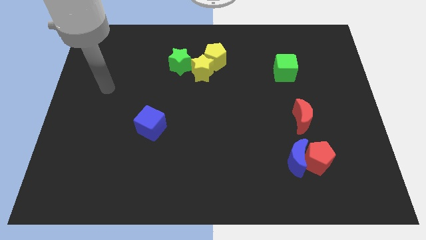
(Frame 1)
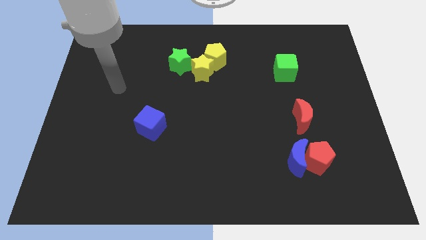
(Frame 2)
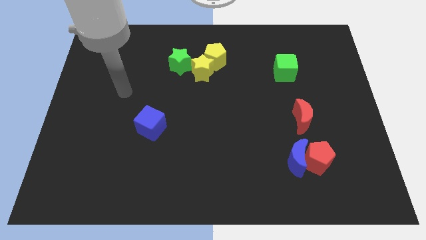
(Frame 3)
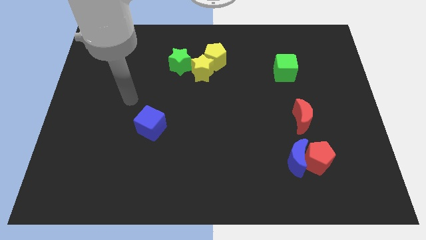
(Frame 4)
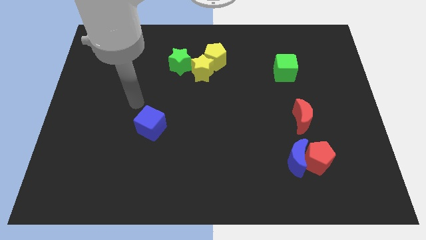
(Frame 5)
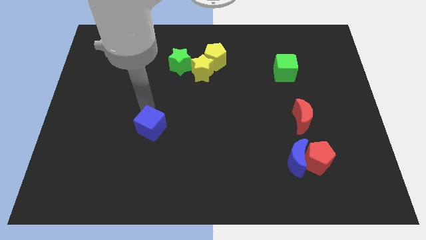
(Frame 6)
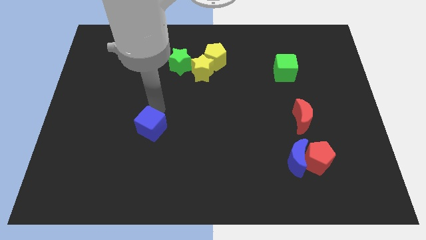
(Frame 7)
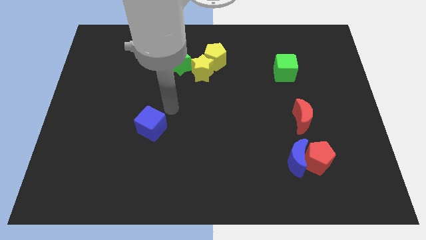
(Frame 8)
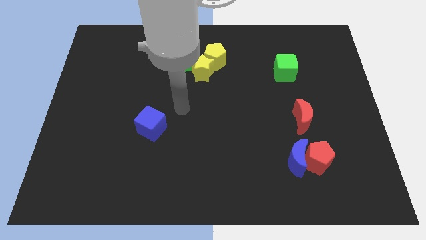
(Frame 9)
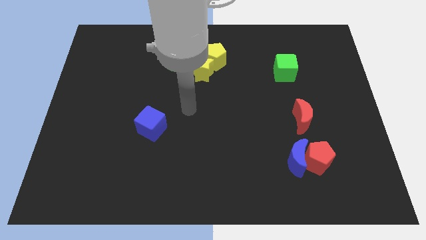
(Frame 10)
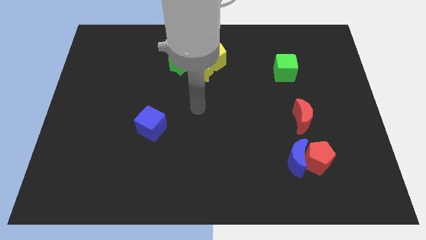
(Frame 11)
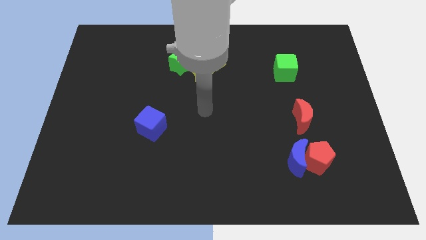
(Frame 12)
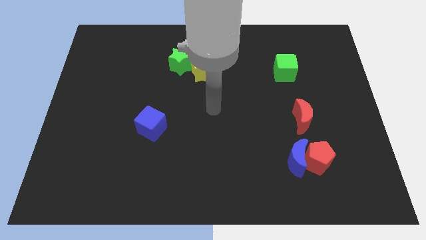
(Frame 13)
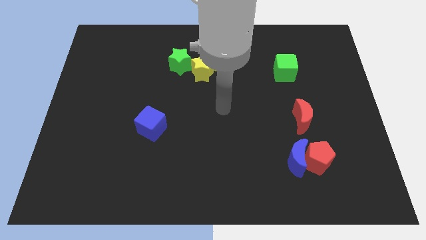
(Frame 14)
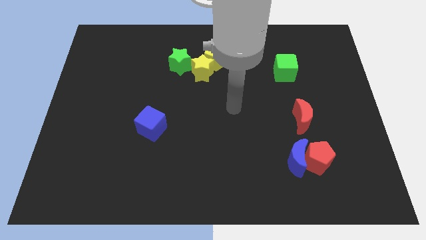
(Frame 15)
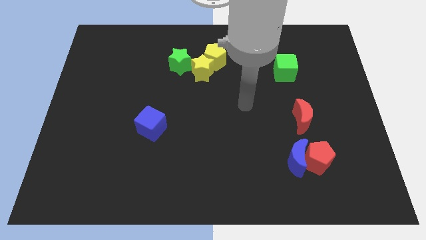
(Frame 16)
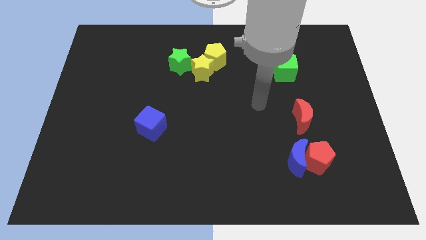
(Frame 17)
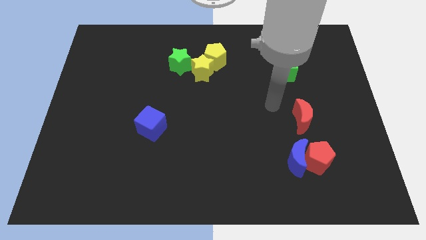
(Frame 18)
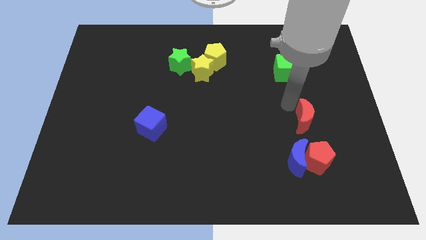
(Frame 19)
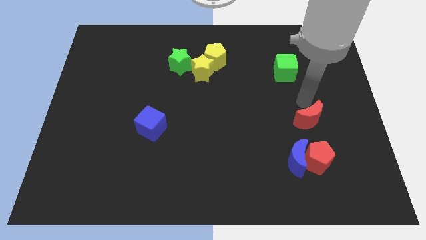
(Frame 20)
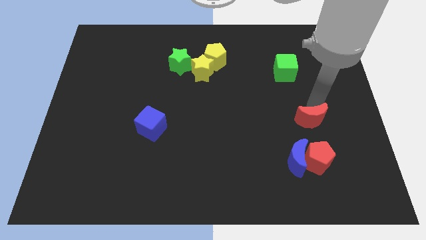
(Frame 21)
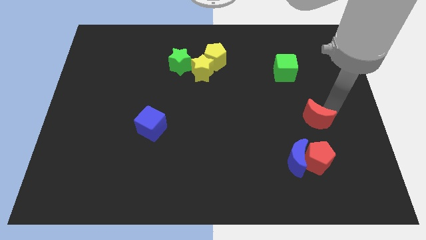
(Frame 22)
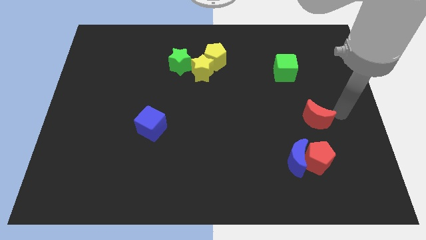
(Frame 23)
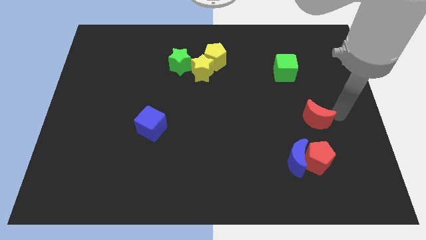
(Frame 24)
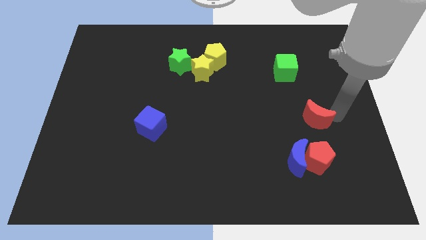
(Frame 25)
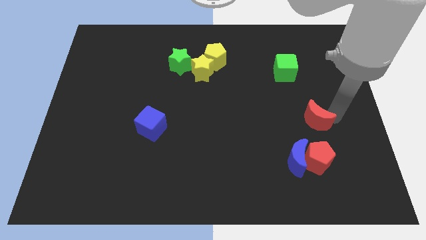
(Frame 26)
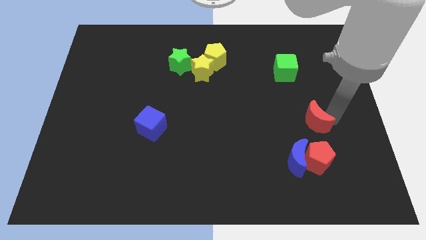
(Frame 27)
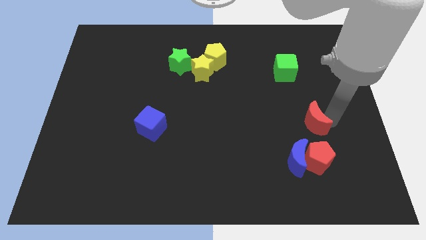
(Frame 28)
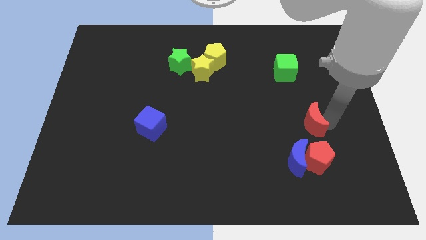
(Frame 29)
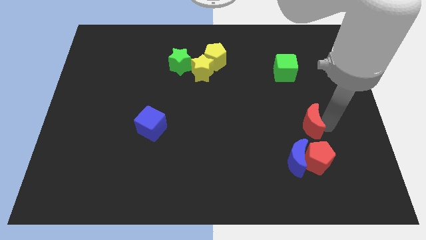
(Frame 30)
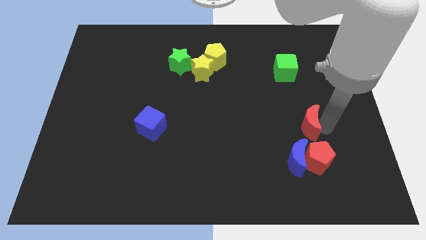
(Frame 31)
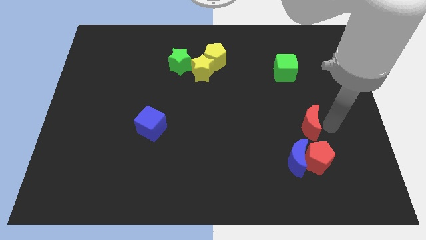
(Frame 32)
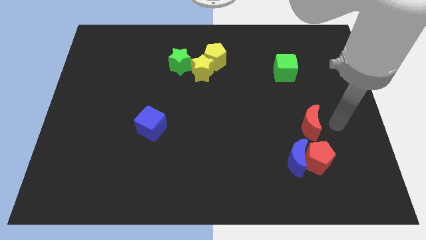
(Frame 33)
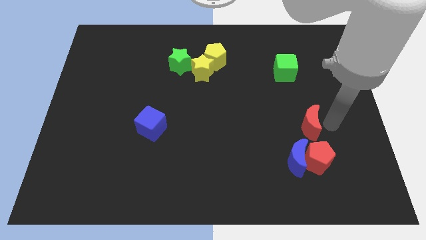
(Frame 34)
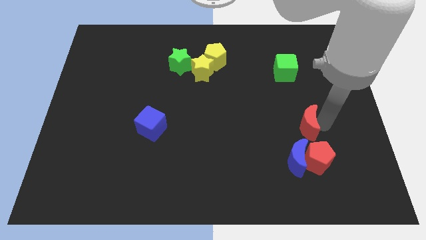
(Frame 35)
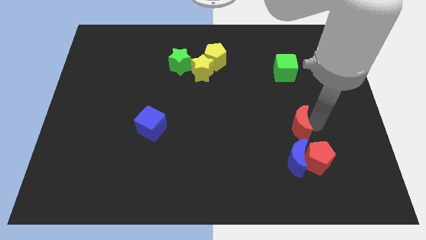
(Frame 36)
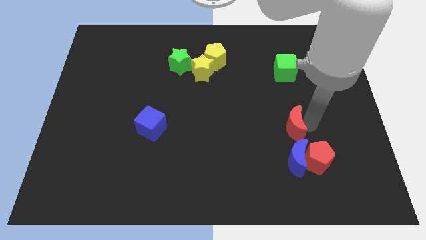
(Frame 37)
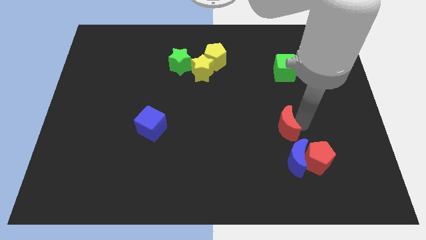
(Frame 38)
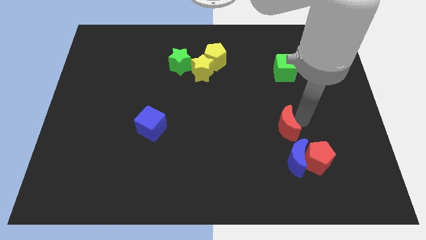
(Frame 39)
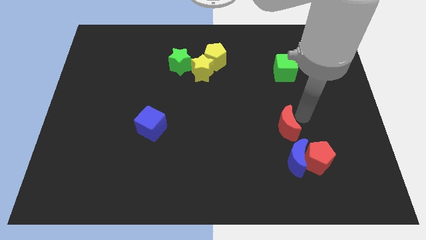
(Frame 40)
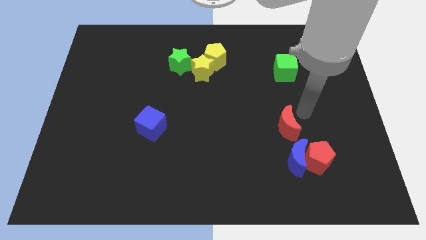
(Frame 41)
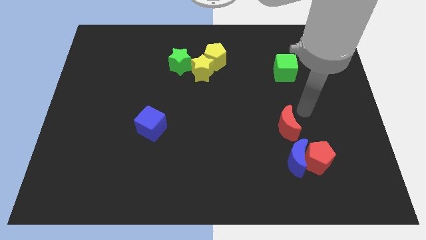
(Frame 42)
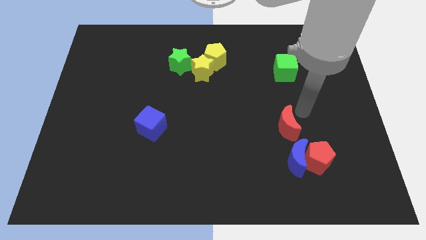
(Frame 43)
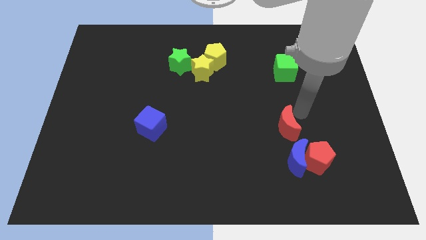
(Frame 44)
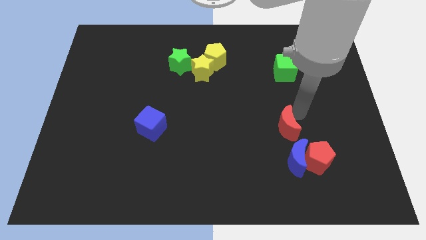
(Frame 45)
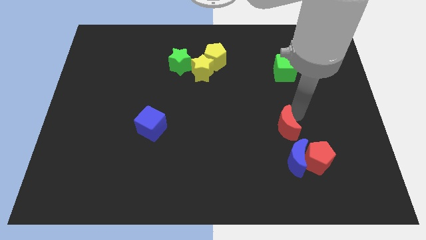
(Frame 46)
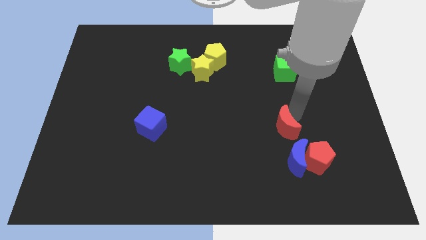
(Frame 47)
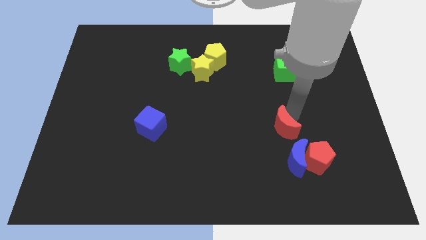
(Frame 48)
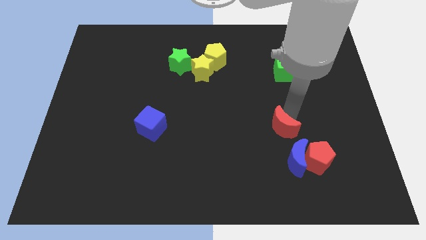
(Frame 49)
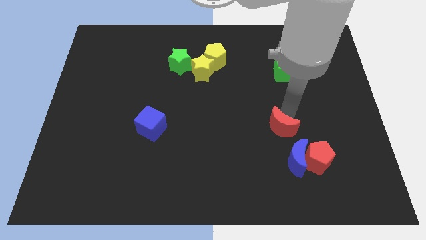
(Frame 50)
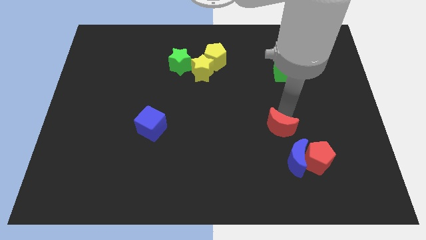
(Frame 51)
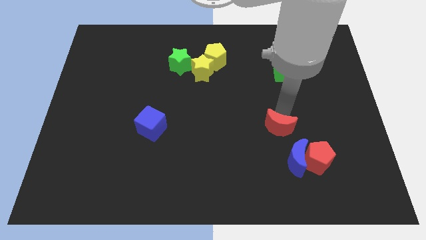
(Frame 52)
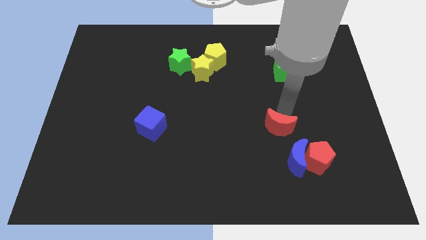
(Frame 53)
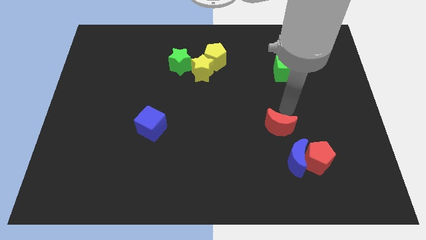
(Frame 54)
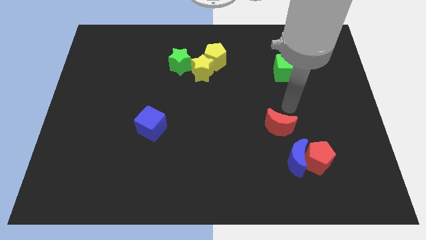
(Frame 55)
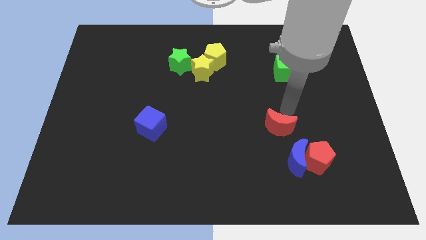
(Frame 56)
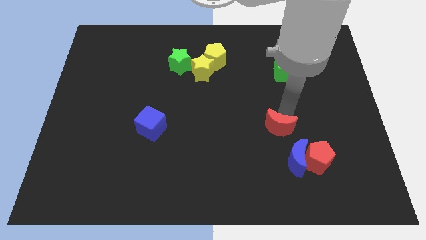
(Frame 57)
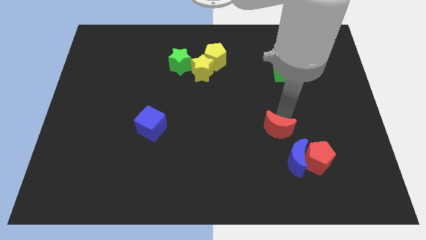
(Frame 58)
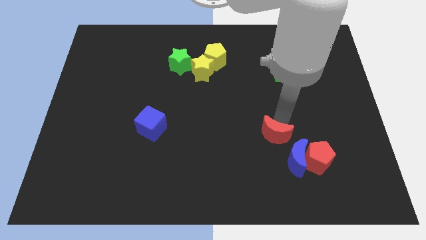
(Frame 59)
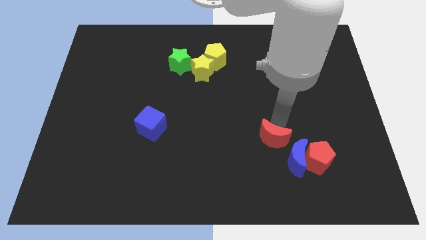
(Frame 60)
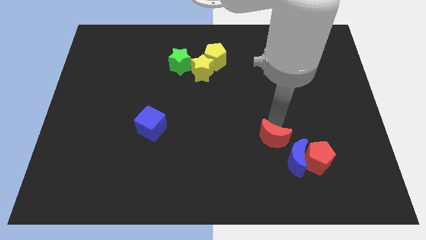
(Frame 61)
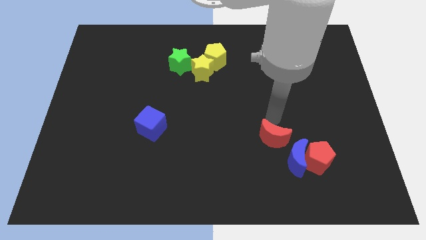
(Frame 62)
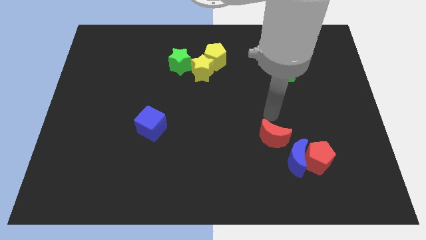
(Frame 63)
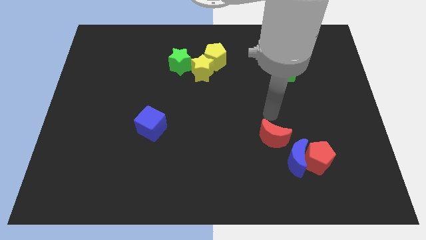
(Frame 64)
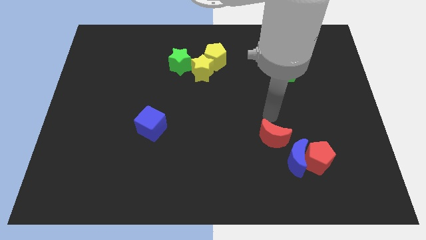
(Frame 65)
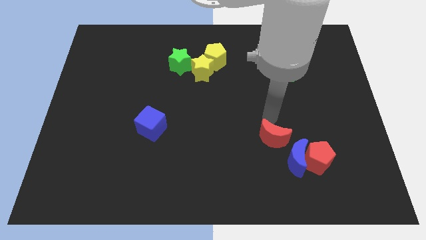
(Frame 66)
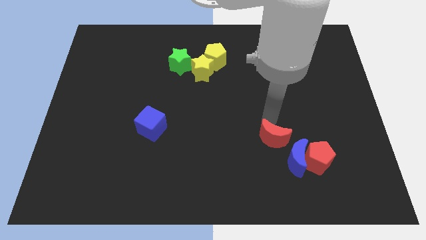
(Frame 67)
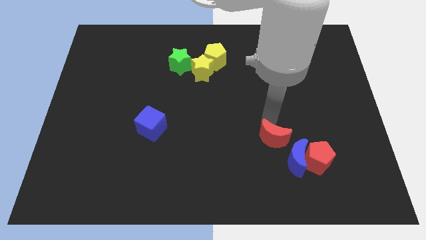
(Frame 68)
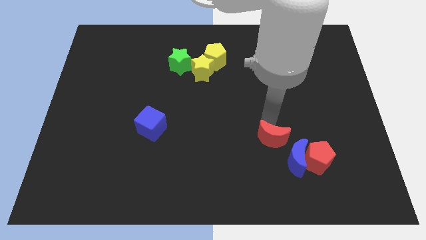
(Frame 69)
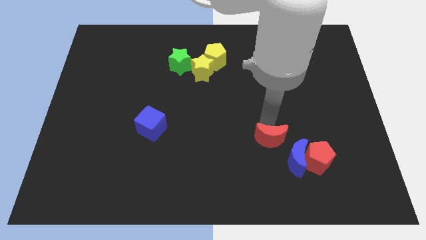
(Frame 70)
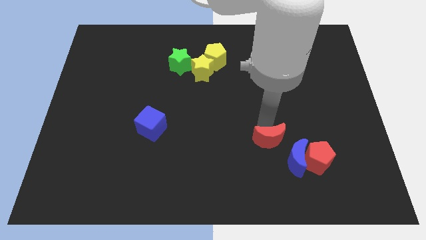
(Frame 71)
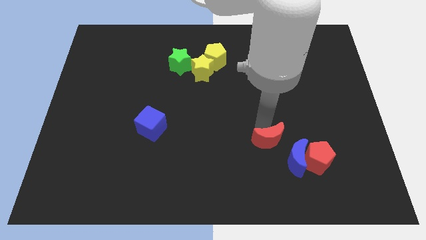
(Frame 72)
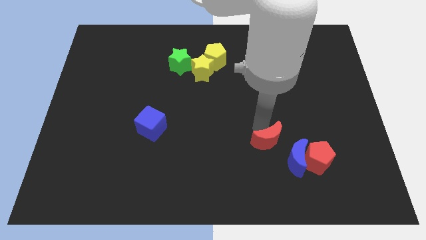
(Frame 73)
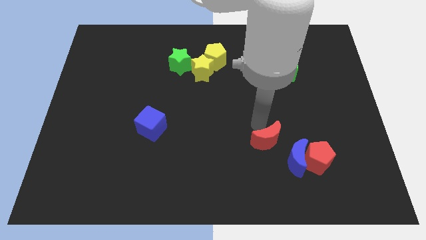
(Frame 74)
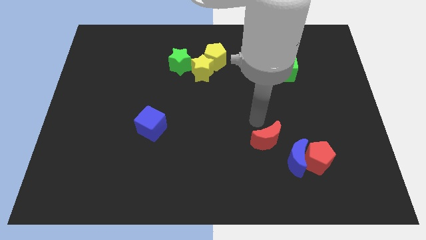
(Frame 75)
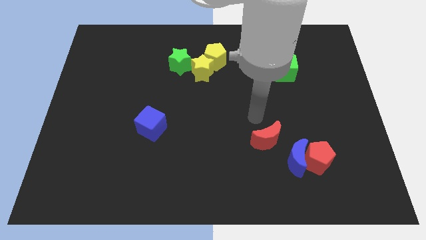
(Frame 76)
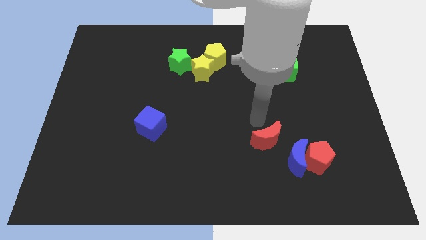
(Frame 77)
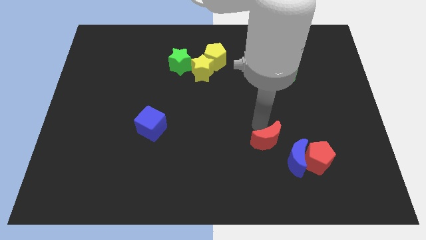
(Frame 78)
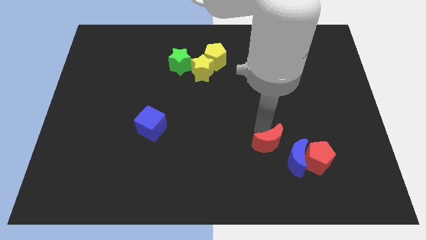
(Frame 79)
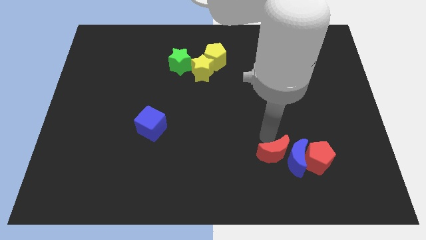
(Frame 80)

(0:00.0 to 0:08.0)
put the red moon to the bottom left side of the blue moon
